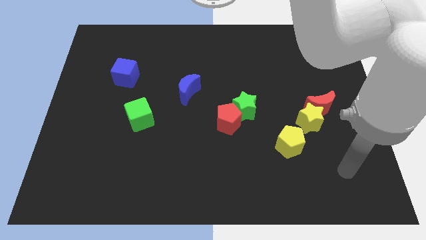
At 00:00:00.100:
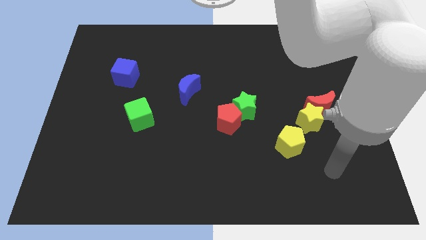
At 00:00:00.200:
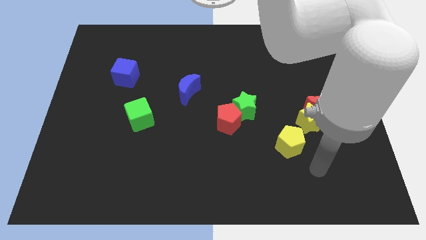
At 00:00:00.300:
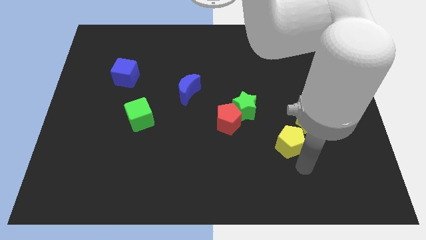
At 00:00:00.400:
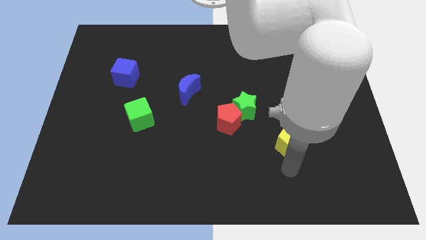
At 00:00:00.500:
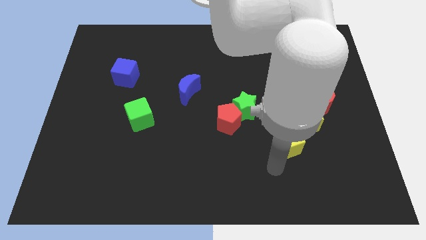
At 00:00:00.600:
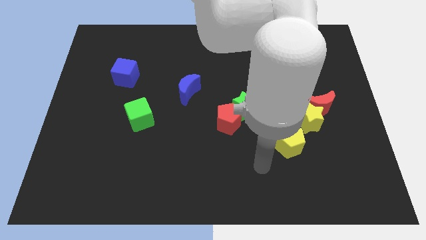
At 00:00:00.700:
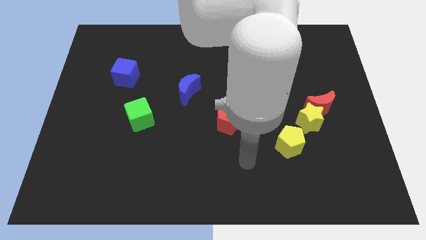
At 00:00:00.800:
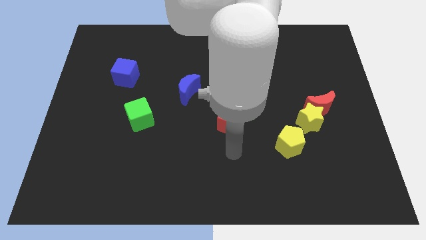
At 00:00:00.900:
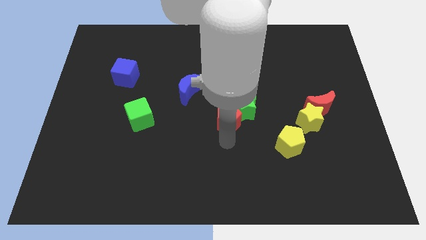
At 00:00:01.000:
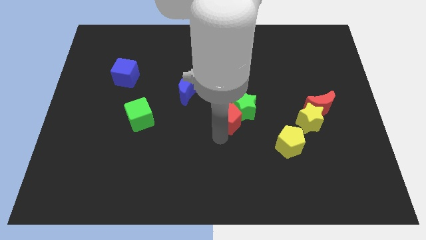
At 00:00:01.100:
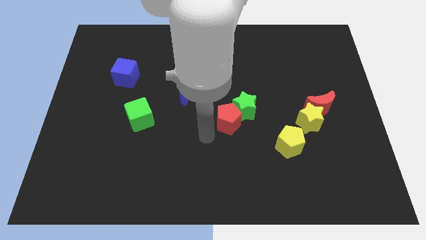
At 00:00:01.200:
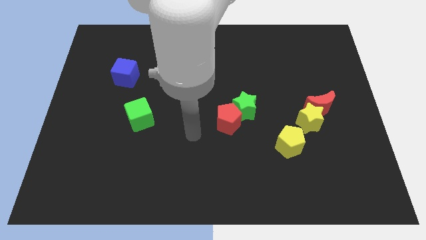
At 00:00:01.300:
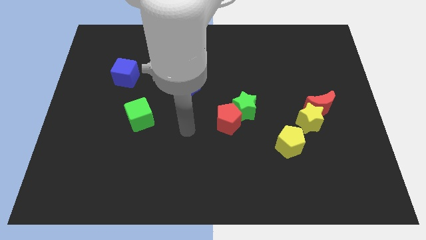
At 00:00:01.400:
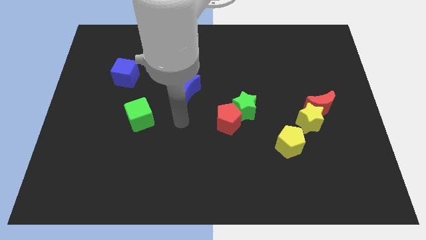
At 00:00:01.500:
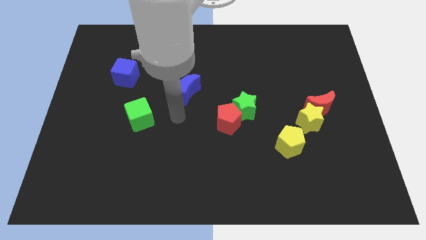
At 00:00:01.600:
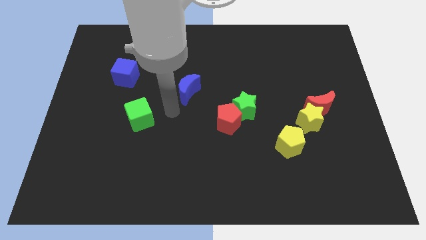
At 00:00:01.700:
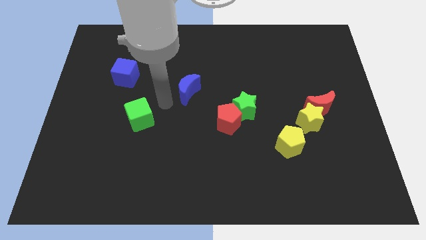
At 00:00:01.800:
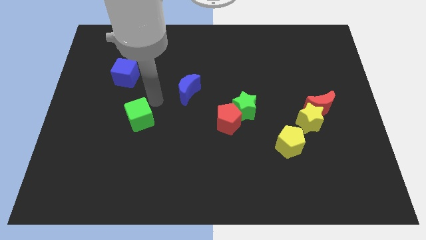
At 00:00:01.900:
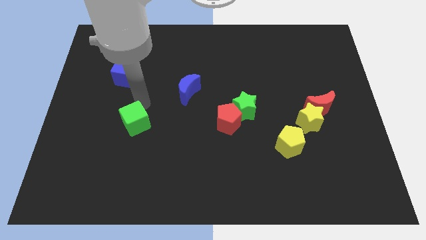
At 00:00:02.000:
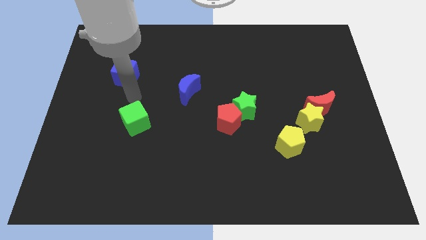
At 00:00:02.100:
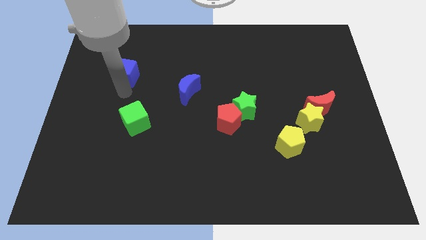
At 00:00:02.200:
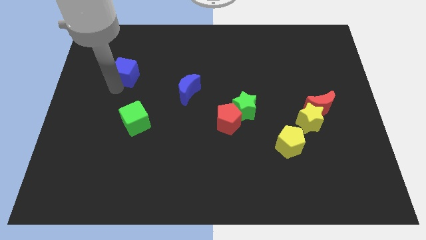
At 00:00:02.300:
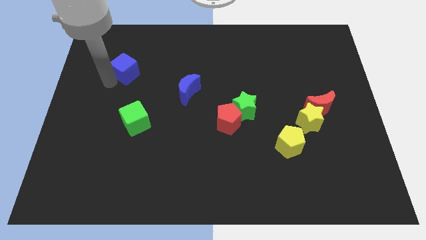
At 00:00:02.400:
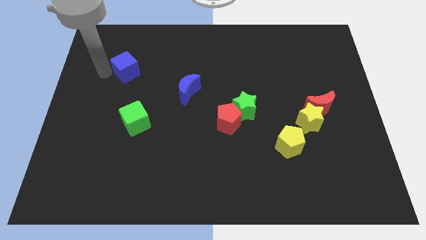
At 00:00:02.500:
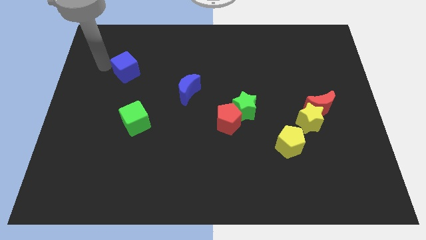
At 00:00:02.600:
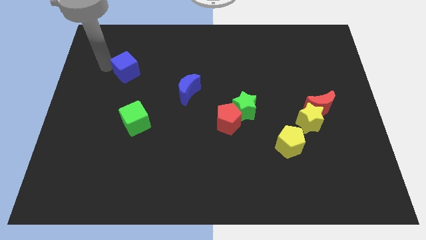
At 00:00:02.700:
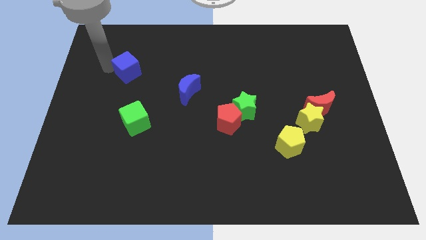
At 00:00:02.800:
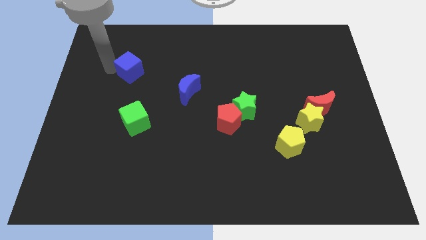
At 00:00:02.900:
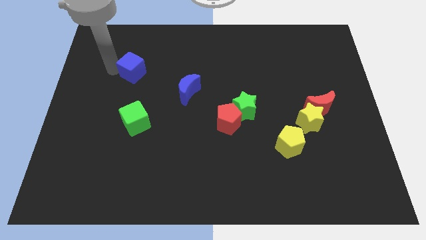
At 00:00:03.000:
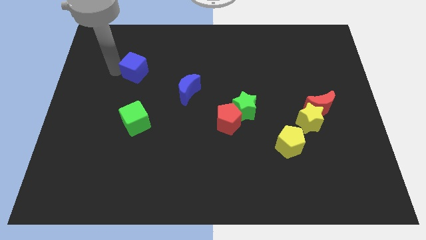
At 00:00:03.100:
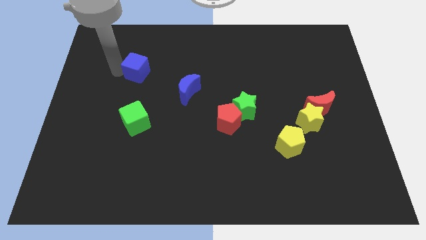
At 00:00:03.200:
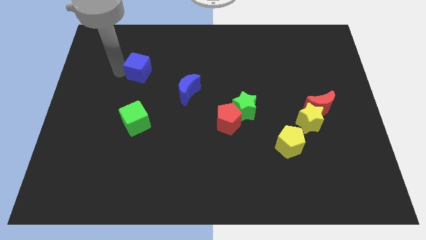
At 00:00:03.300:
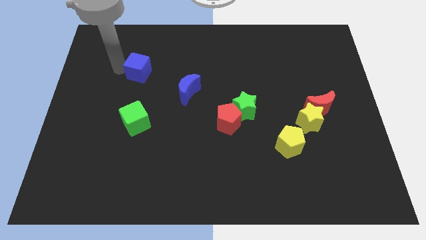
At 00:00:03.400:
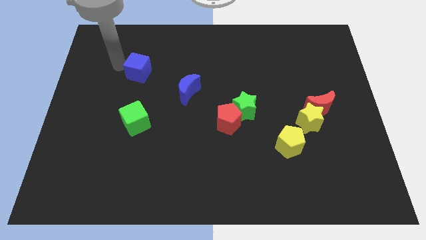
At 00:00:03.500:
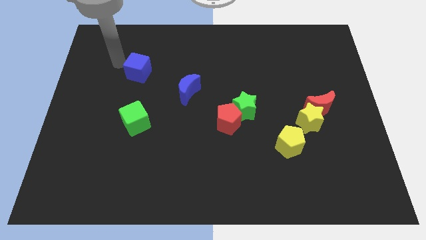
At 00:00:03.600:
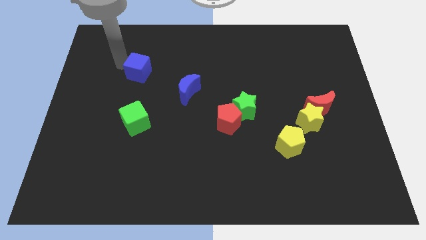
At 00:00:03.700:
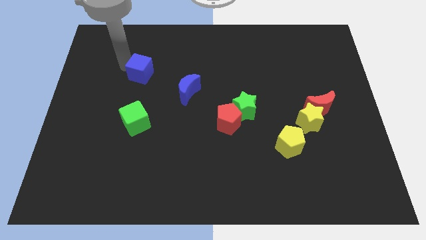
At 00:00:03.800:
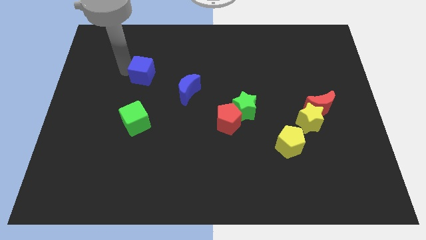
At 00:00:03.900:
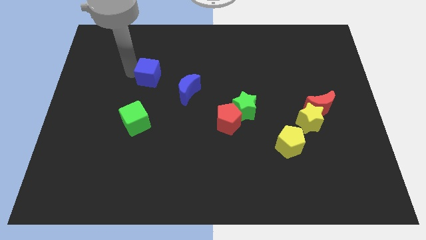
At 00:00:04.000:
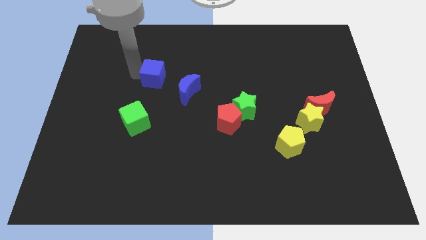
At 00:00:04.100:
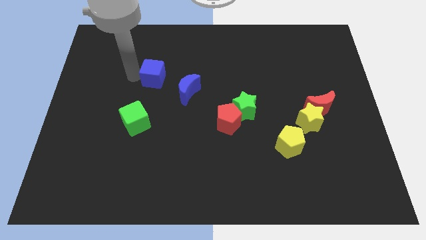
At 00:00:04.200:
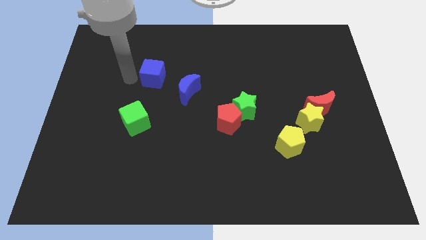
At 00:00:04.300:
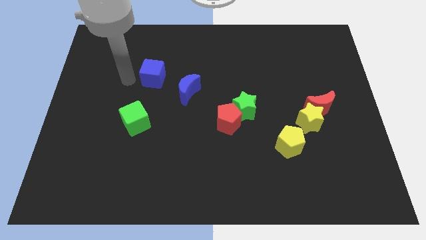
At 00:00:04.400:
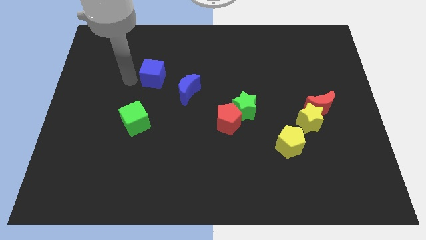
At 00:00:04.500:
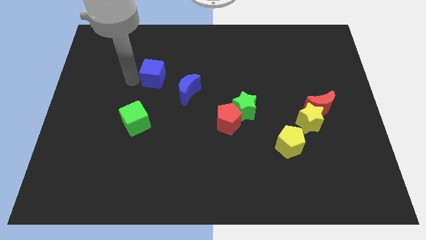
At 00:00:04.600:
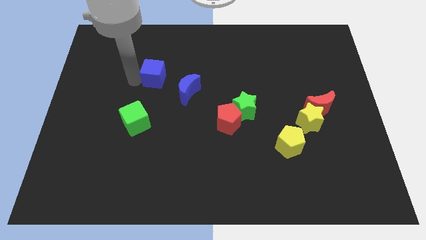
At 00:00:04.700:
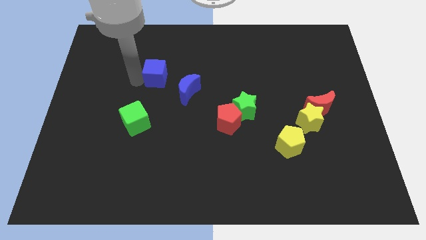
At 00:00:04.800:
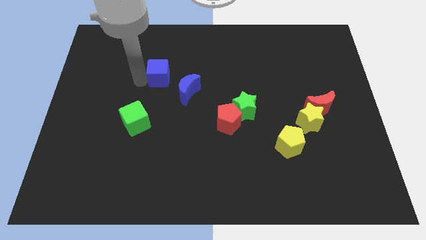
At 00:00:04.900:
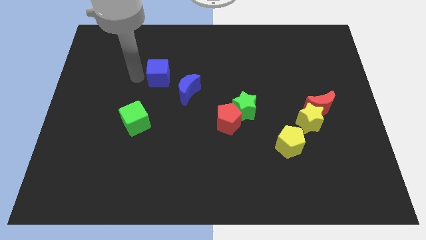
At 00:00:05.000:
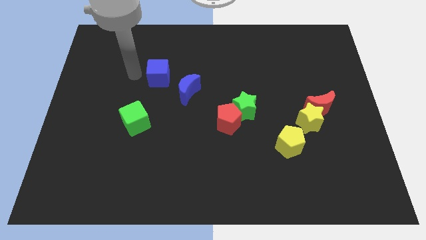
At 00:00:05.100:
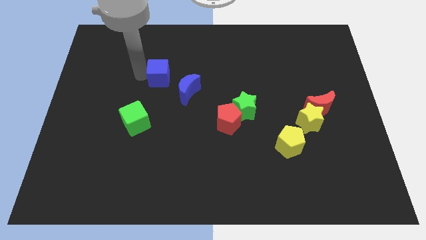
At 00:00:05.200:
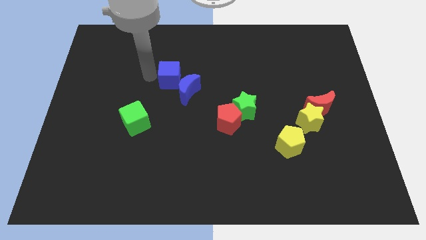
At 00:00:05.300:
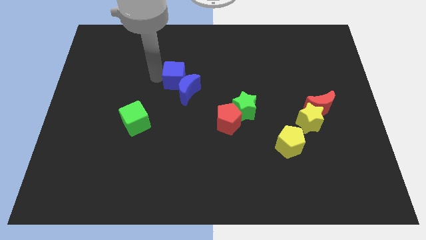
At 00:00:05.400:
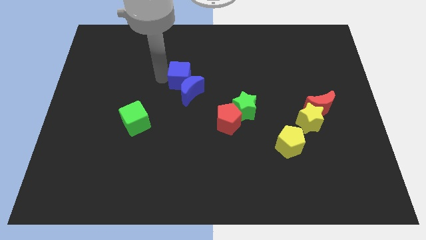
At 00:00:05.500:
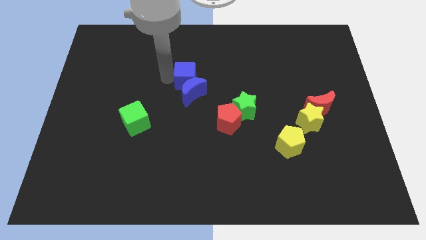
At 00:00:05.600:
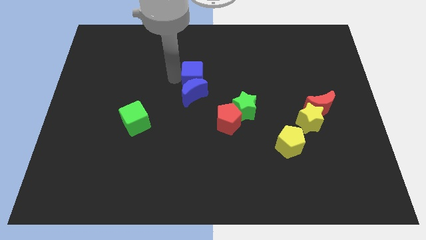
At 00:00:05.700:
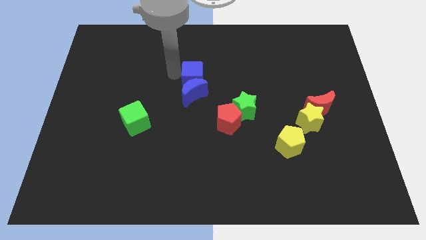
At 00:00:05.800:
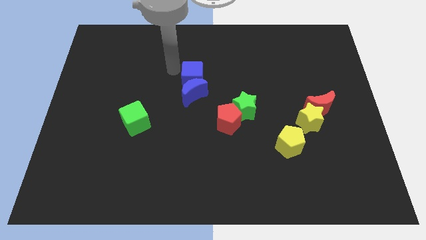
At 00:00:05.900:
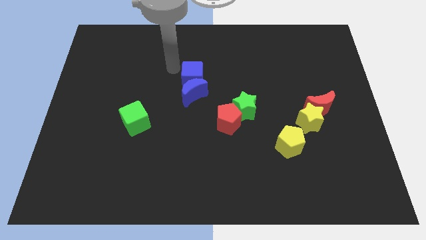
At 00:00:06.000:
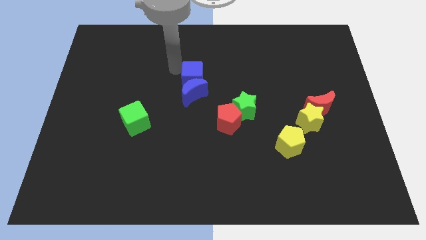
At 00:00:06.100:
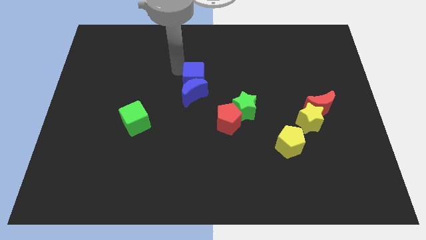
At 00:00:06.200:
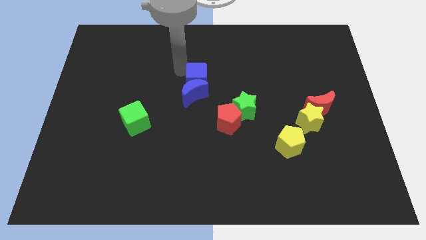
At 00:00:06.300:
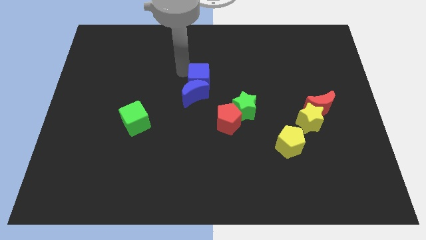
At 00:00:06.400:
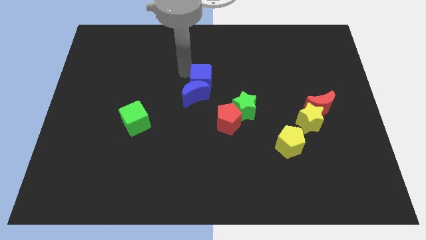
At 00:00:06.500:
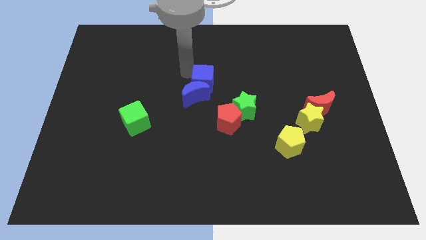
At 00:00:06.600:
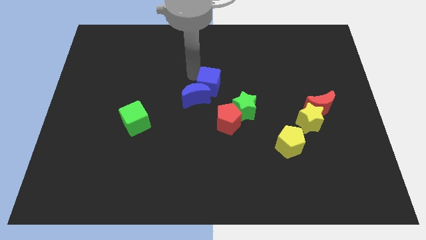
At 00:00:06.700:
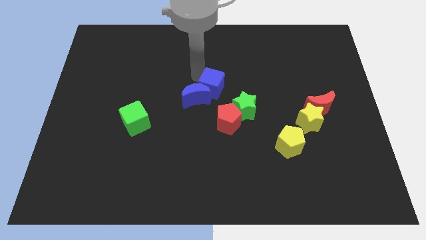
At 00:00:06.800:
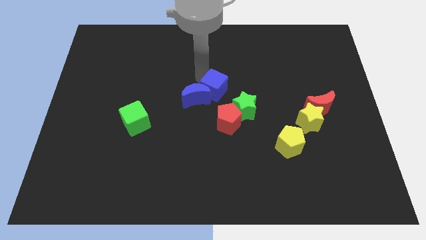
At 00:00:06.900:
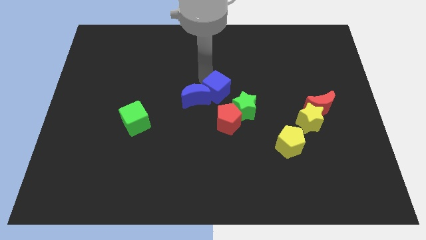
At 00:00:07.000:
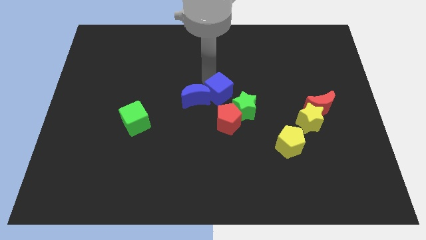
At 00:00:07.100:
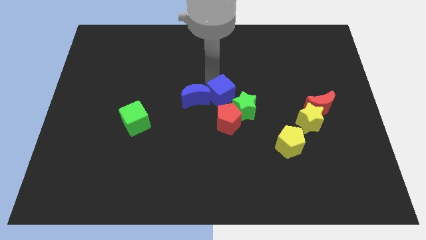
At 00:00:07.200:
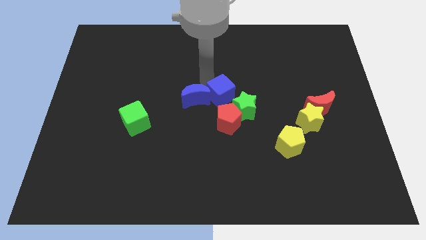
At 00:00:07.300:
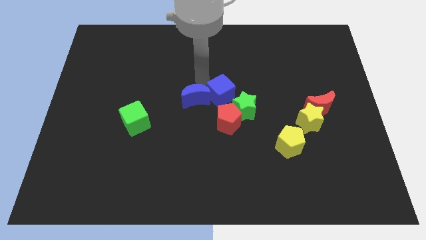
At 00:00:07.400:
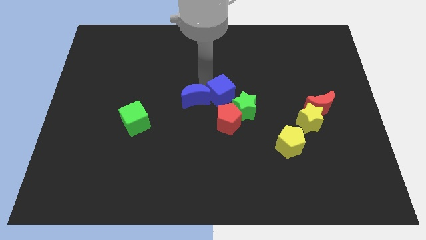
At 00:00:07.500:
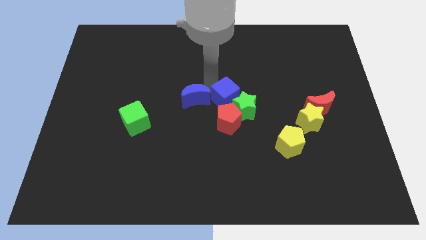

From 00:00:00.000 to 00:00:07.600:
put the blue cube towards the green star
